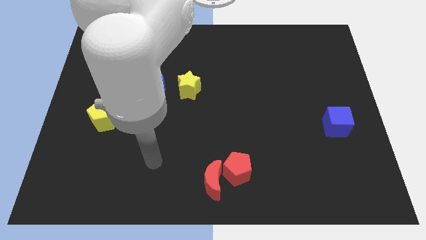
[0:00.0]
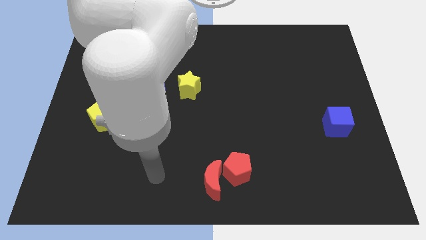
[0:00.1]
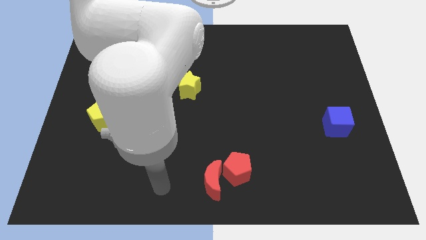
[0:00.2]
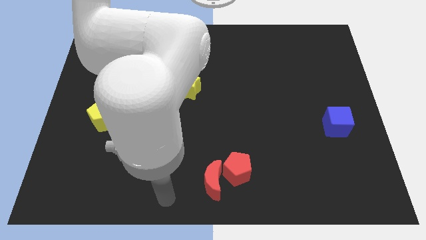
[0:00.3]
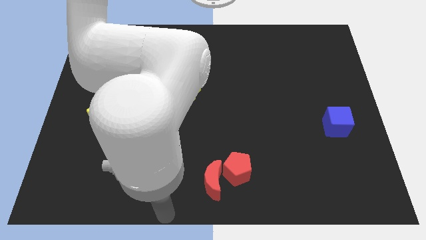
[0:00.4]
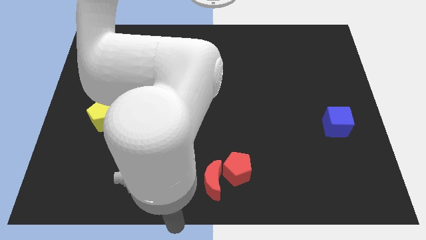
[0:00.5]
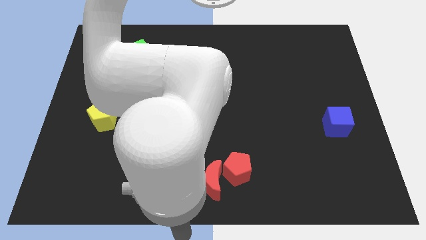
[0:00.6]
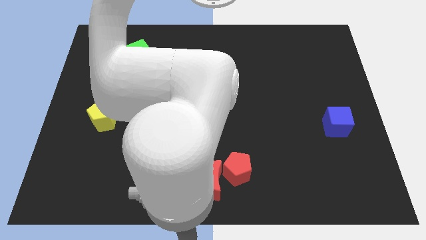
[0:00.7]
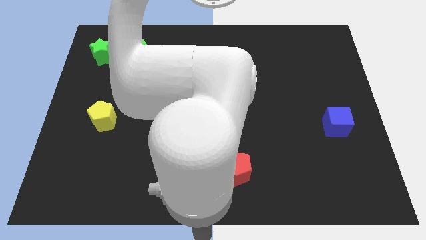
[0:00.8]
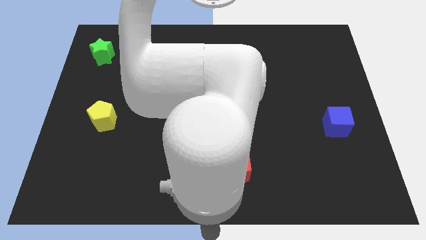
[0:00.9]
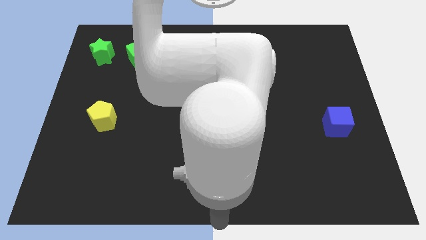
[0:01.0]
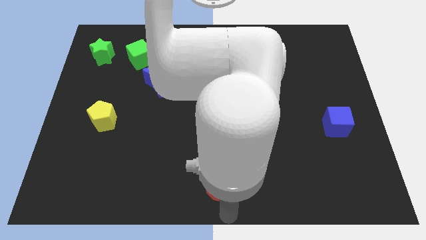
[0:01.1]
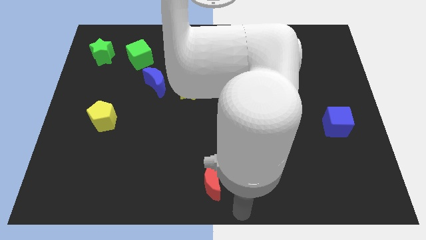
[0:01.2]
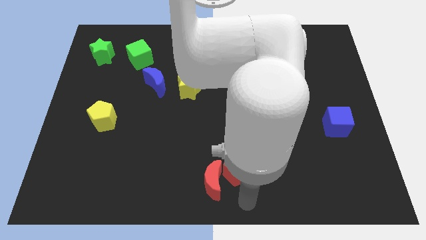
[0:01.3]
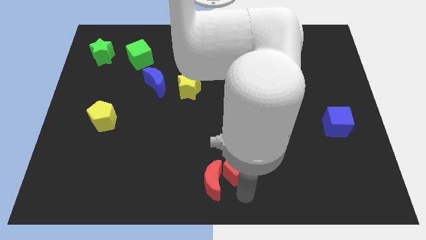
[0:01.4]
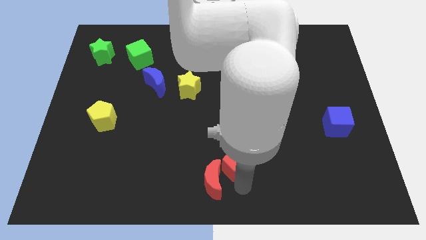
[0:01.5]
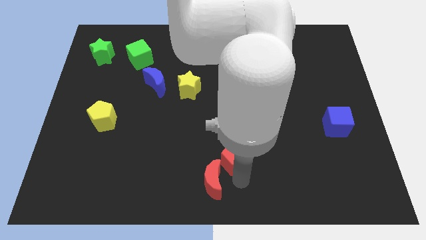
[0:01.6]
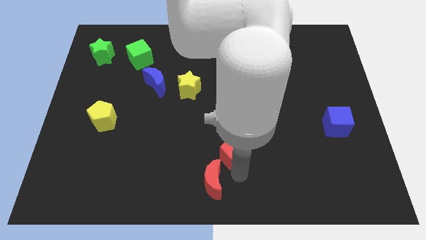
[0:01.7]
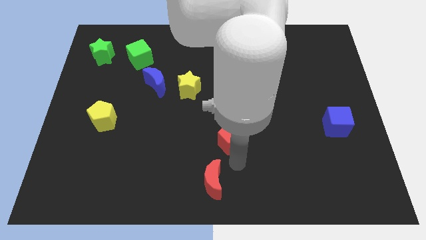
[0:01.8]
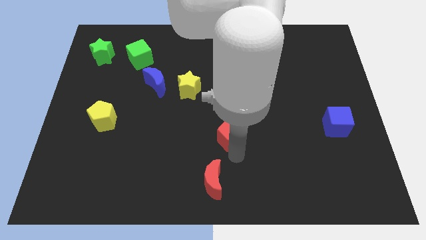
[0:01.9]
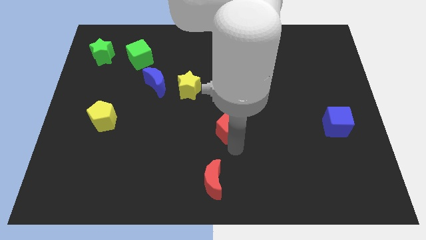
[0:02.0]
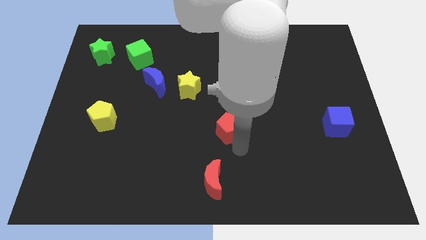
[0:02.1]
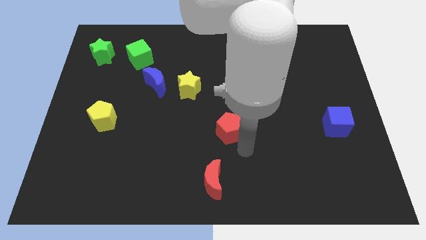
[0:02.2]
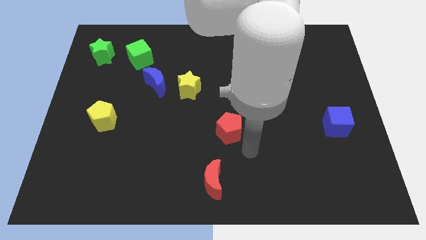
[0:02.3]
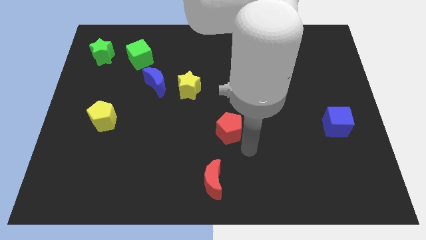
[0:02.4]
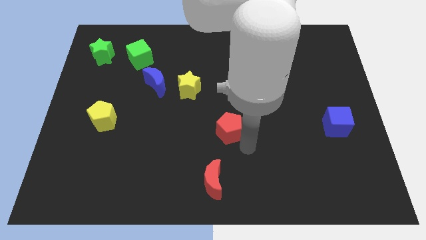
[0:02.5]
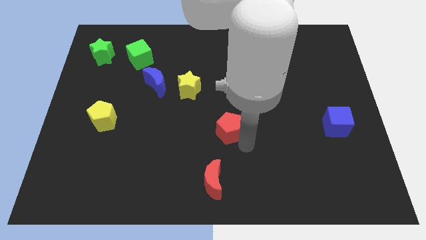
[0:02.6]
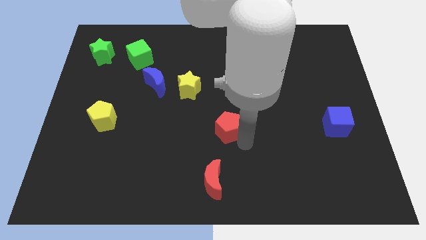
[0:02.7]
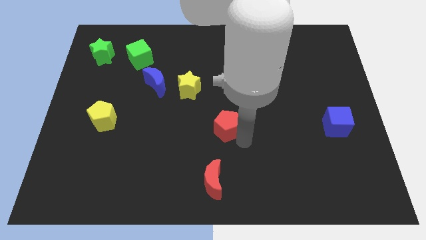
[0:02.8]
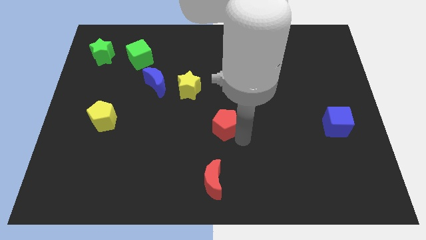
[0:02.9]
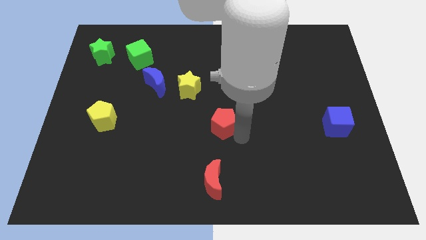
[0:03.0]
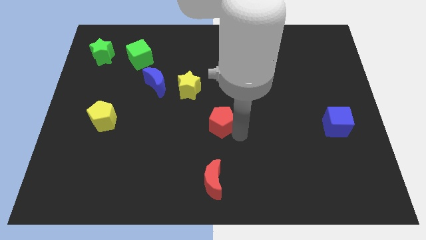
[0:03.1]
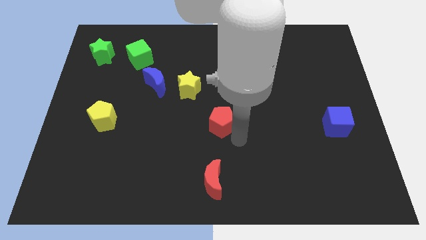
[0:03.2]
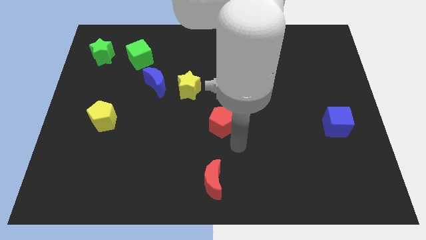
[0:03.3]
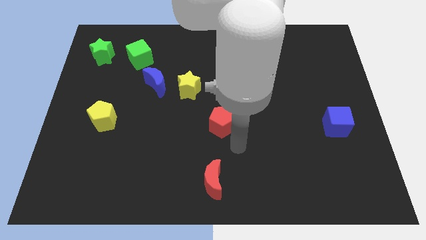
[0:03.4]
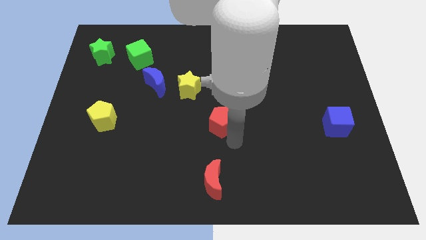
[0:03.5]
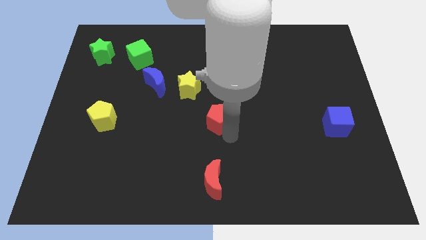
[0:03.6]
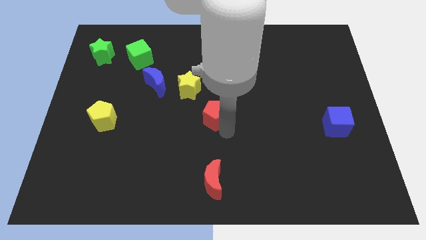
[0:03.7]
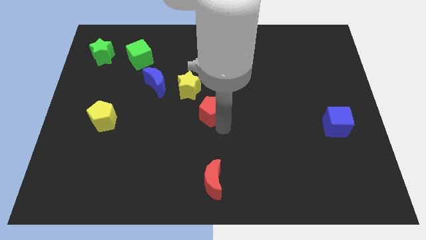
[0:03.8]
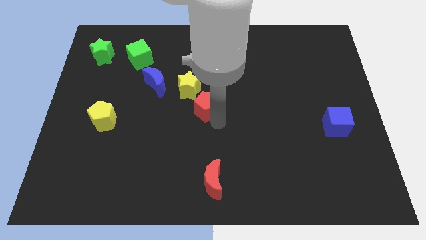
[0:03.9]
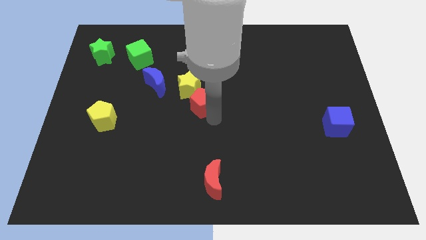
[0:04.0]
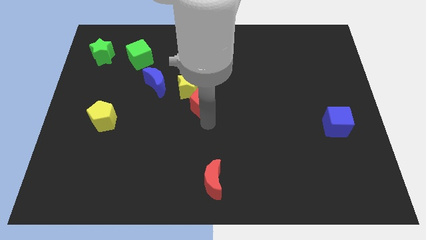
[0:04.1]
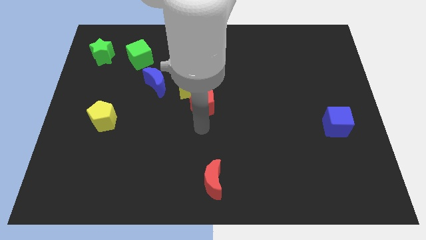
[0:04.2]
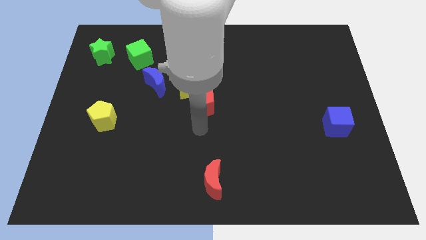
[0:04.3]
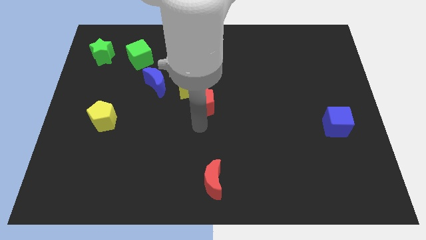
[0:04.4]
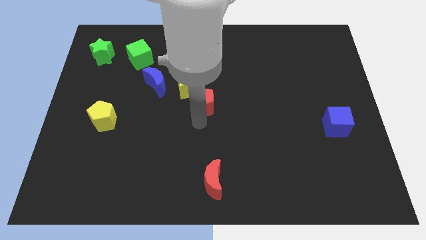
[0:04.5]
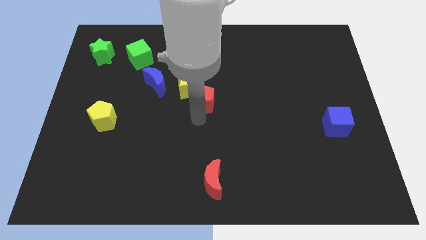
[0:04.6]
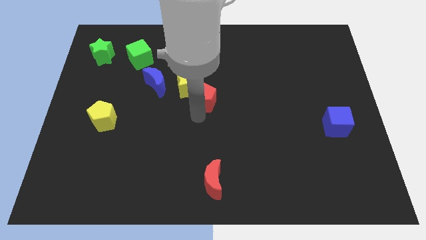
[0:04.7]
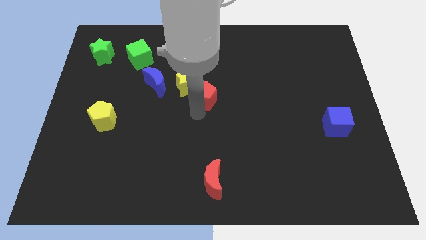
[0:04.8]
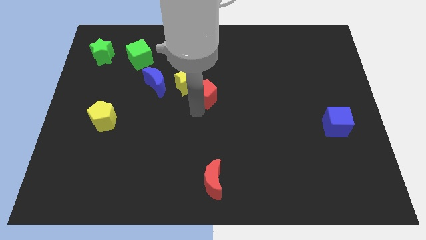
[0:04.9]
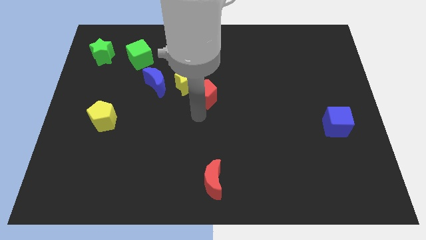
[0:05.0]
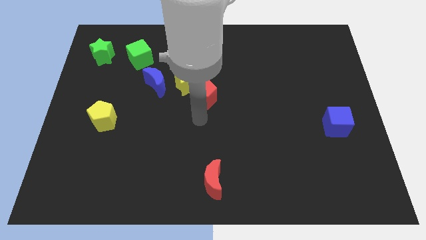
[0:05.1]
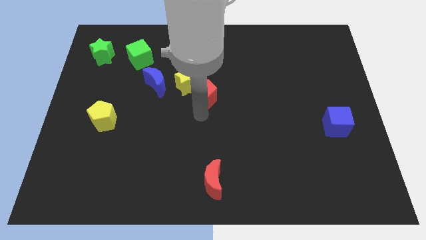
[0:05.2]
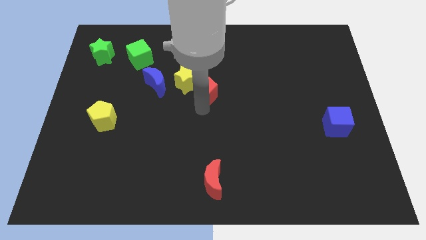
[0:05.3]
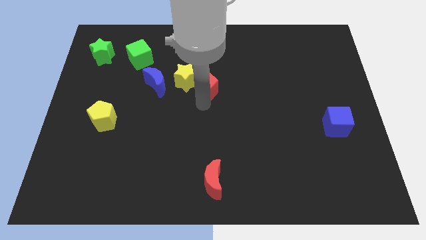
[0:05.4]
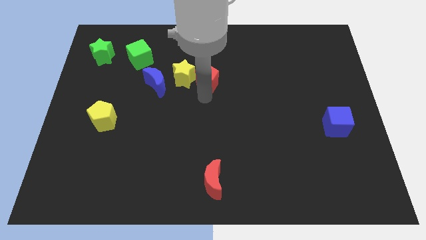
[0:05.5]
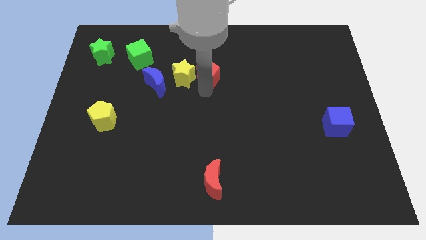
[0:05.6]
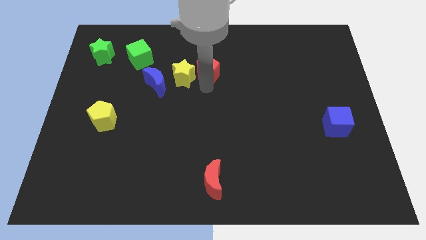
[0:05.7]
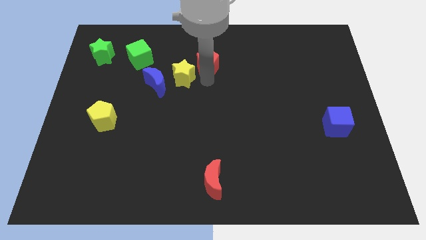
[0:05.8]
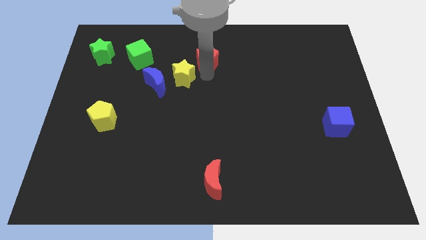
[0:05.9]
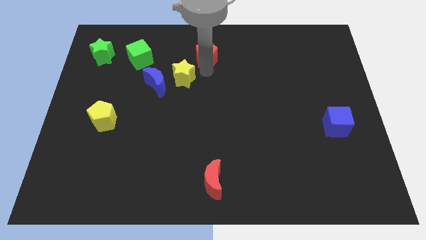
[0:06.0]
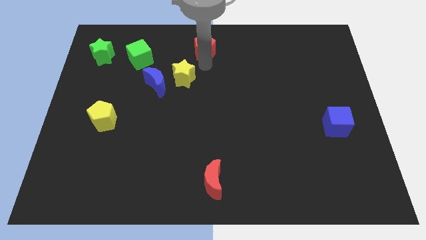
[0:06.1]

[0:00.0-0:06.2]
slide the red pentagon to the towards your base
